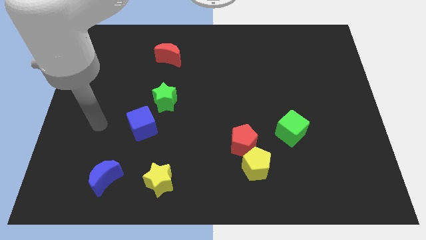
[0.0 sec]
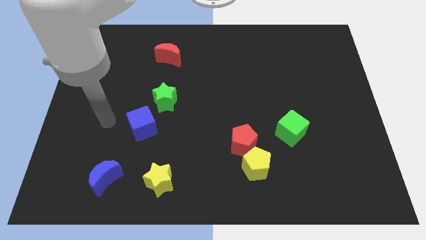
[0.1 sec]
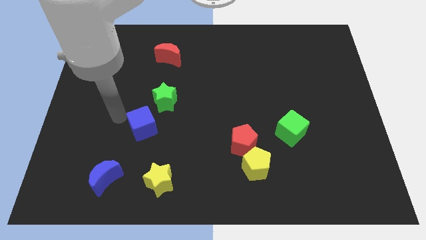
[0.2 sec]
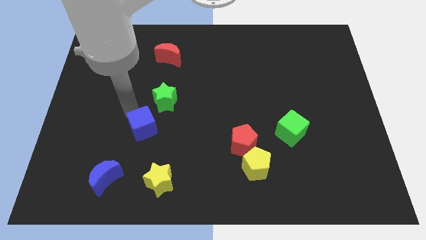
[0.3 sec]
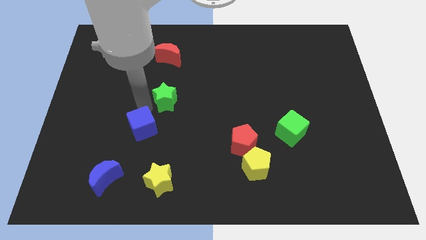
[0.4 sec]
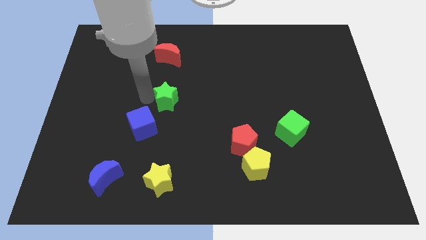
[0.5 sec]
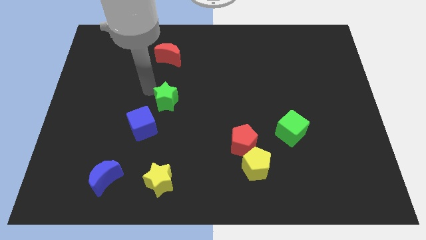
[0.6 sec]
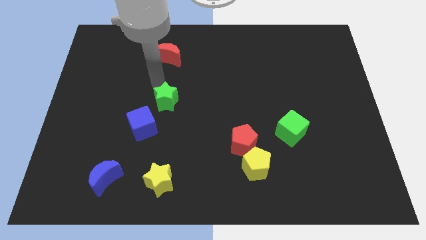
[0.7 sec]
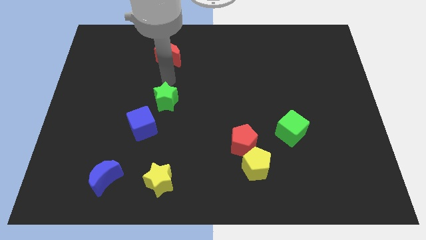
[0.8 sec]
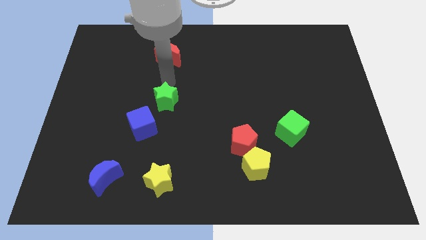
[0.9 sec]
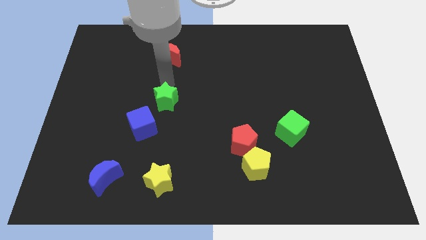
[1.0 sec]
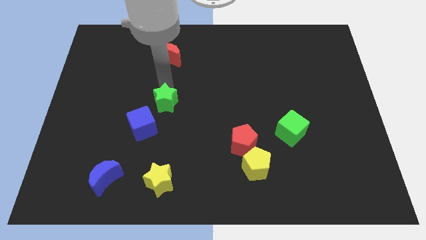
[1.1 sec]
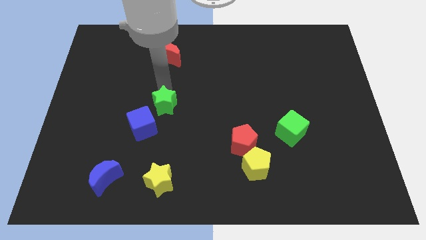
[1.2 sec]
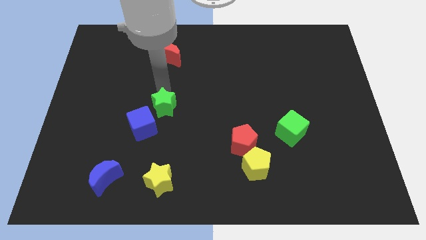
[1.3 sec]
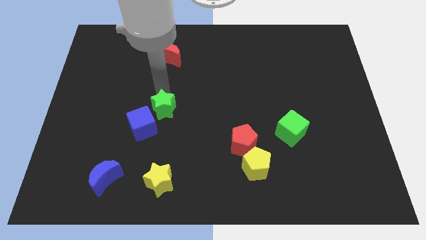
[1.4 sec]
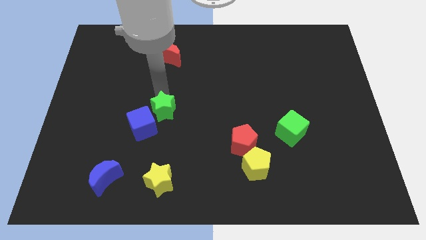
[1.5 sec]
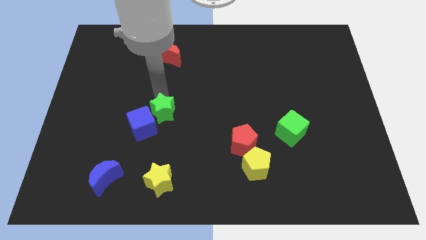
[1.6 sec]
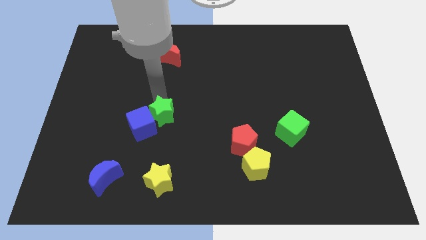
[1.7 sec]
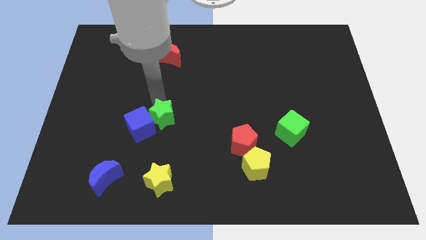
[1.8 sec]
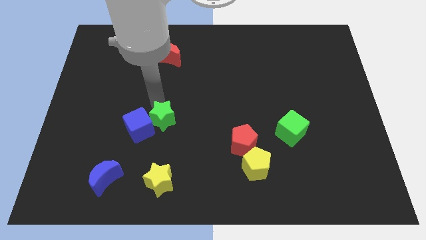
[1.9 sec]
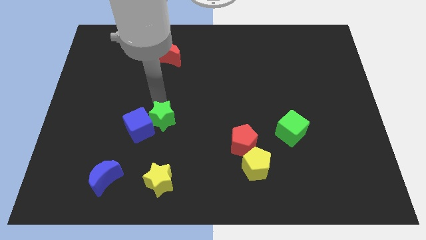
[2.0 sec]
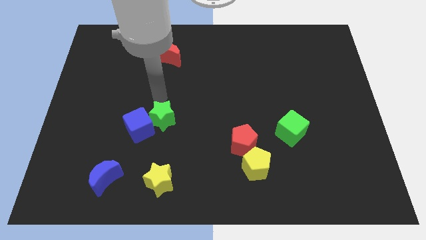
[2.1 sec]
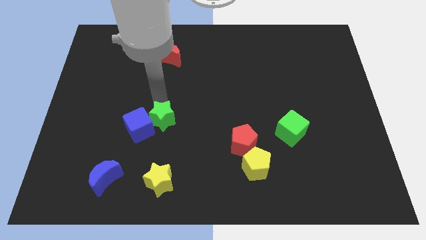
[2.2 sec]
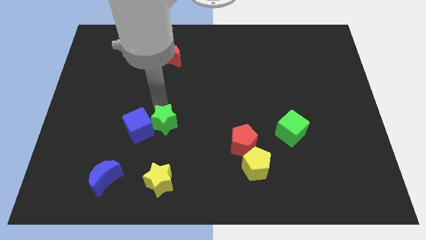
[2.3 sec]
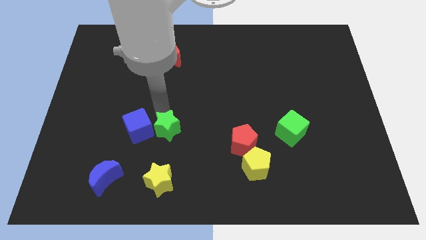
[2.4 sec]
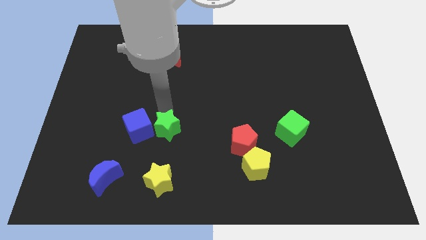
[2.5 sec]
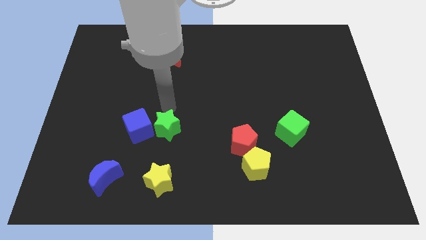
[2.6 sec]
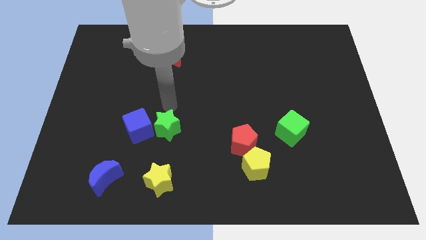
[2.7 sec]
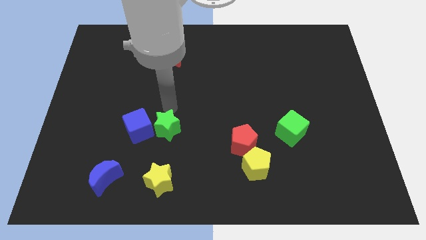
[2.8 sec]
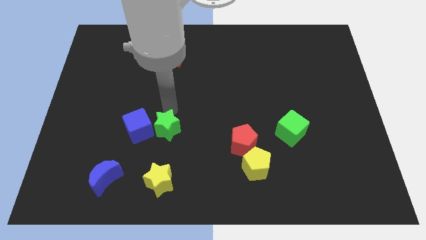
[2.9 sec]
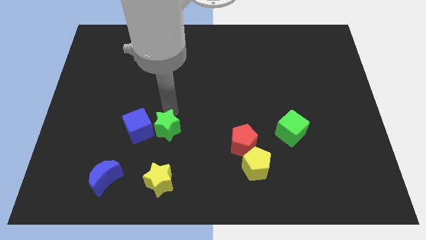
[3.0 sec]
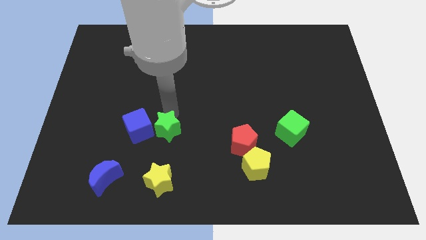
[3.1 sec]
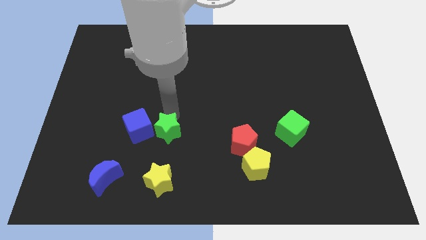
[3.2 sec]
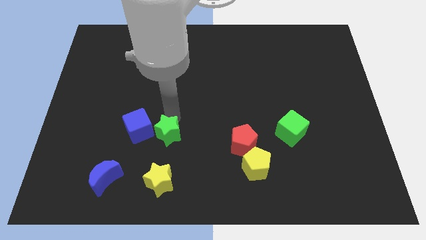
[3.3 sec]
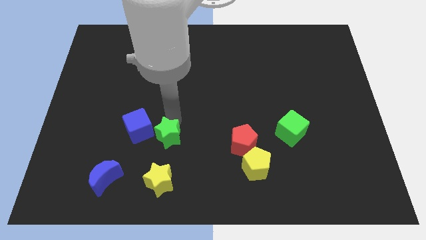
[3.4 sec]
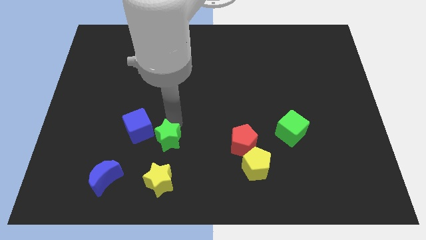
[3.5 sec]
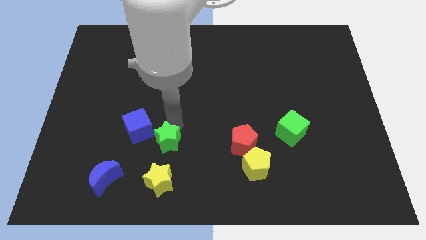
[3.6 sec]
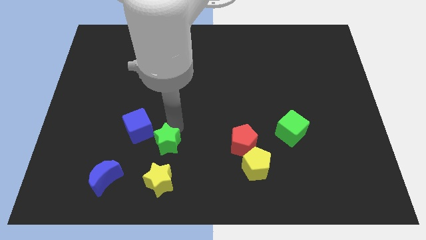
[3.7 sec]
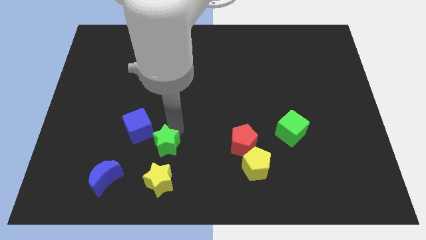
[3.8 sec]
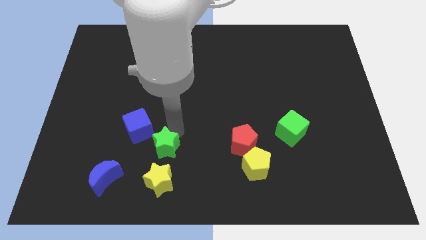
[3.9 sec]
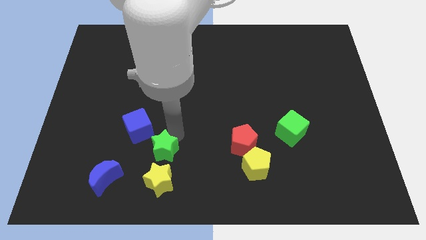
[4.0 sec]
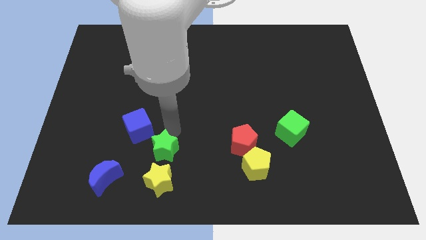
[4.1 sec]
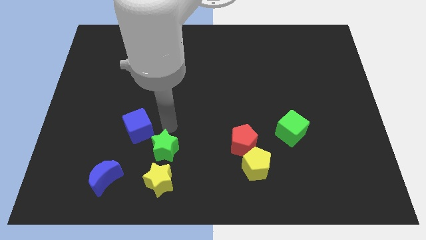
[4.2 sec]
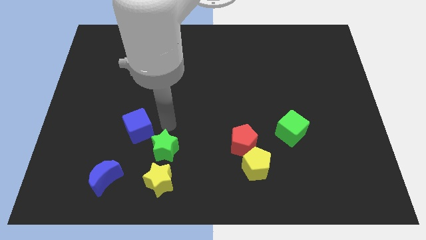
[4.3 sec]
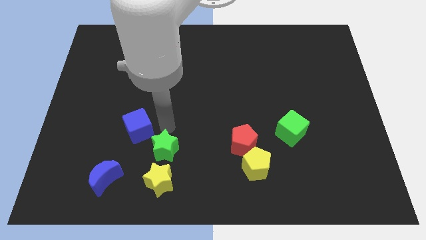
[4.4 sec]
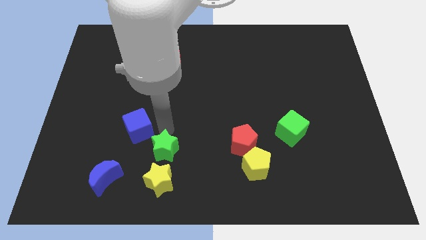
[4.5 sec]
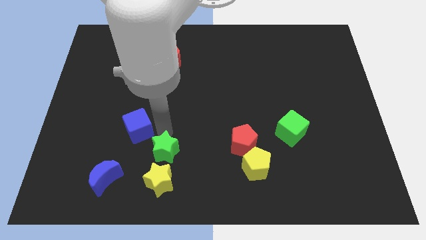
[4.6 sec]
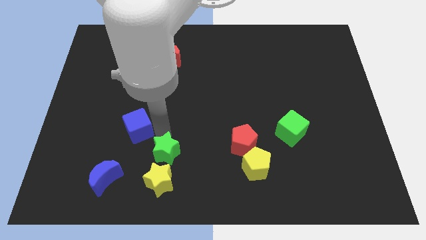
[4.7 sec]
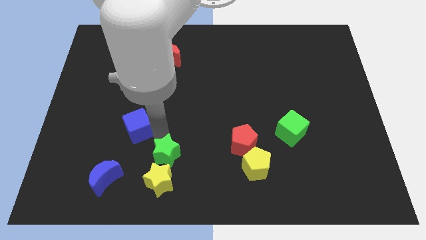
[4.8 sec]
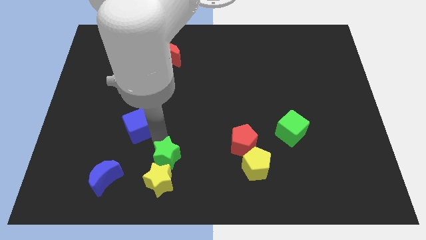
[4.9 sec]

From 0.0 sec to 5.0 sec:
slide the green star towards the yellow star

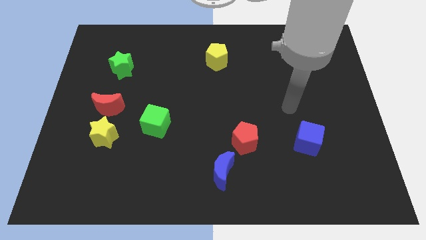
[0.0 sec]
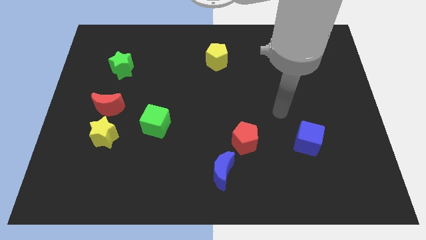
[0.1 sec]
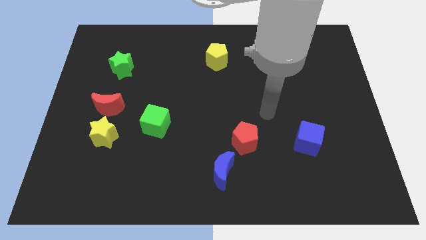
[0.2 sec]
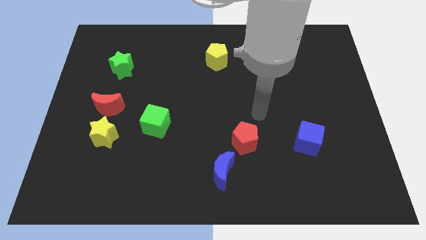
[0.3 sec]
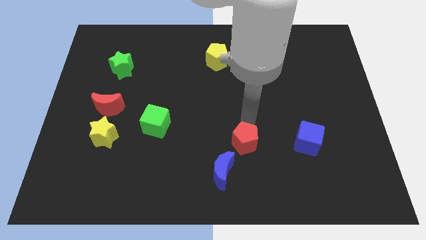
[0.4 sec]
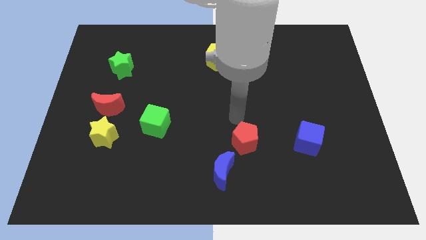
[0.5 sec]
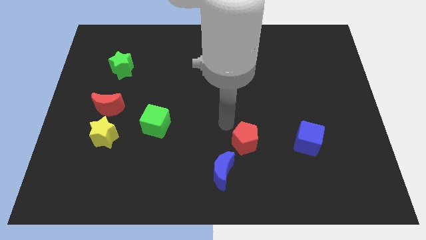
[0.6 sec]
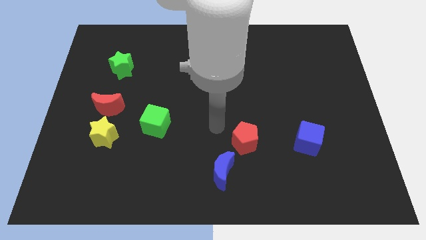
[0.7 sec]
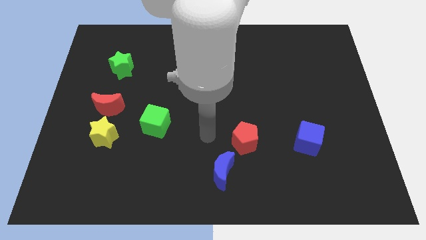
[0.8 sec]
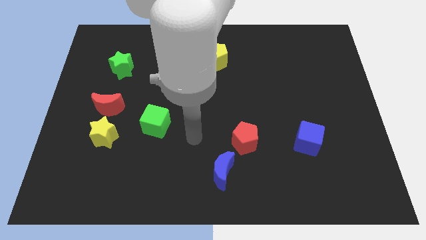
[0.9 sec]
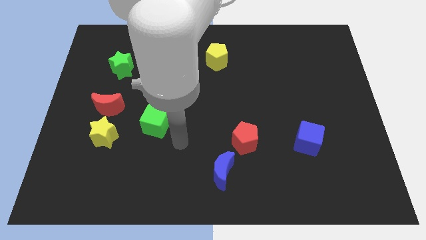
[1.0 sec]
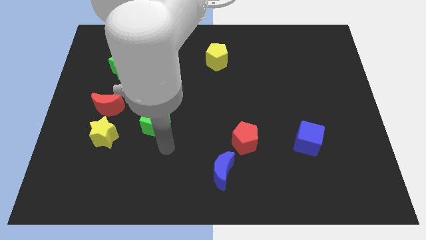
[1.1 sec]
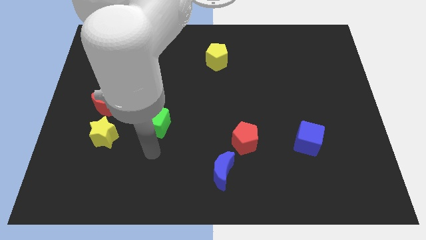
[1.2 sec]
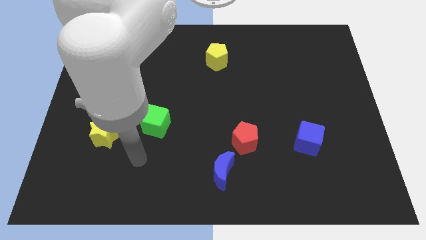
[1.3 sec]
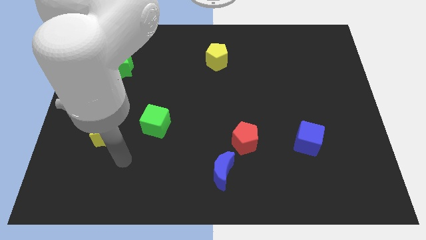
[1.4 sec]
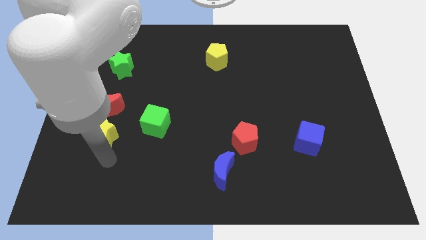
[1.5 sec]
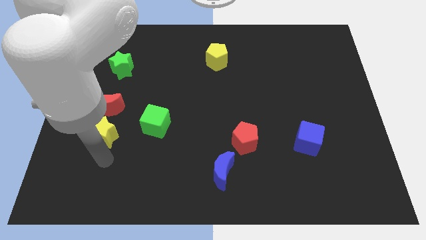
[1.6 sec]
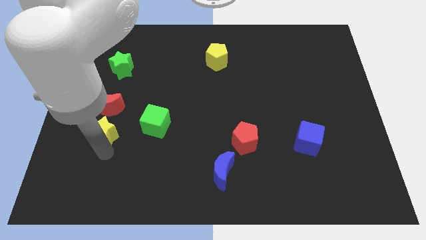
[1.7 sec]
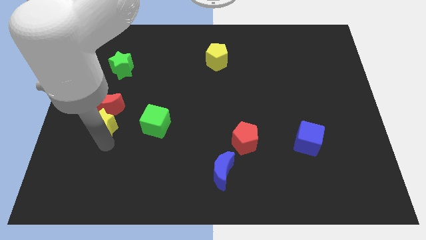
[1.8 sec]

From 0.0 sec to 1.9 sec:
put the yellow star close to the red moon
